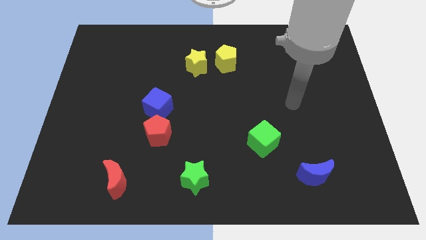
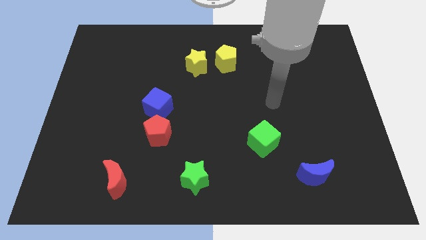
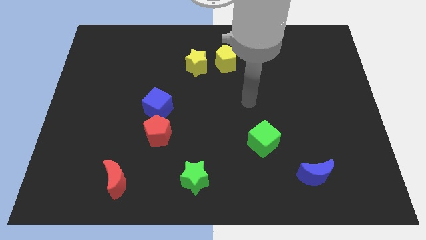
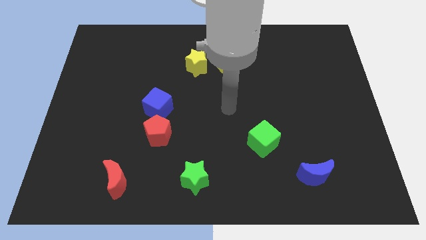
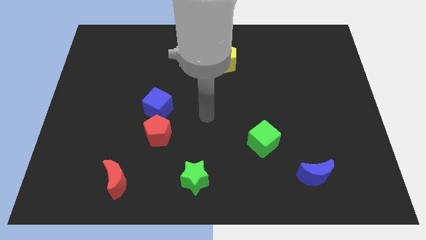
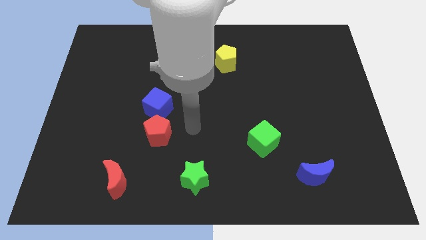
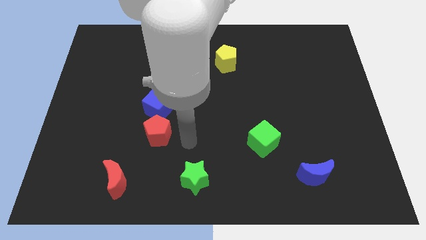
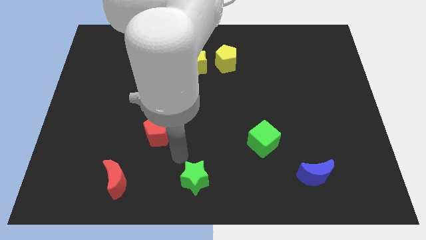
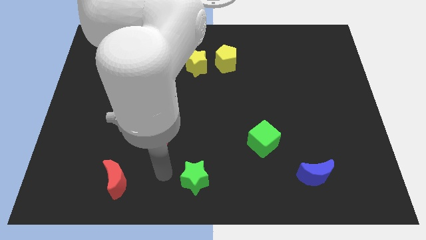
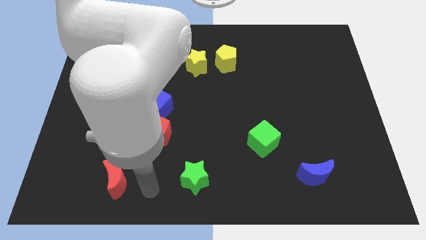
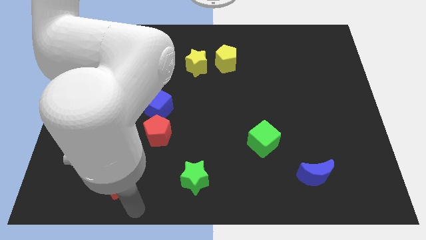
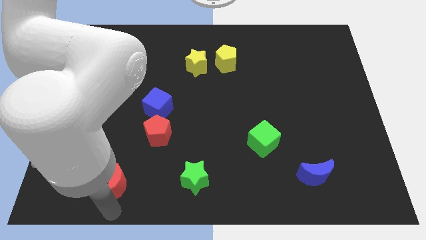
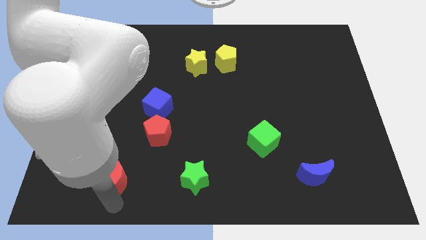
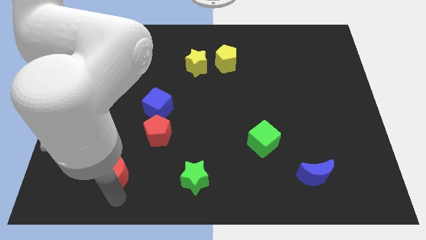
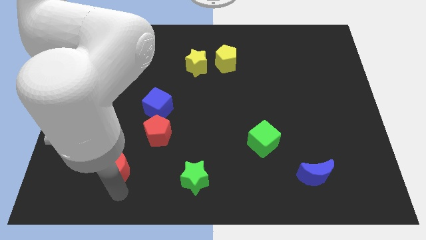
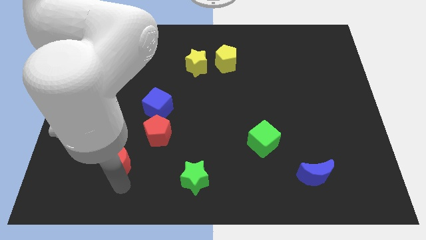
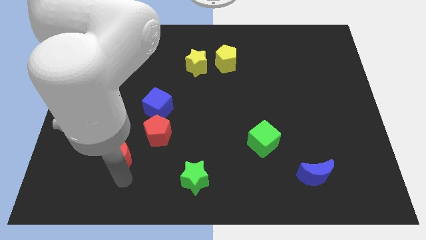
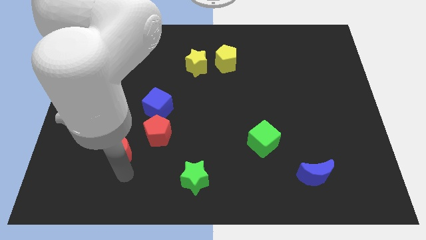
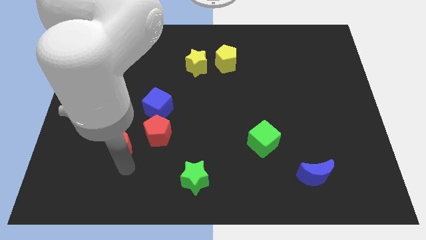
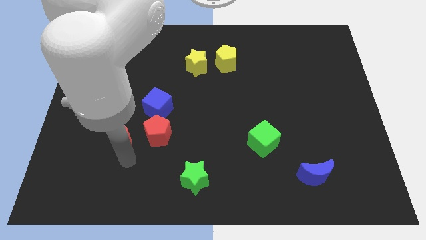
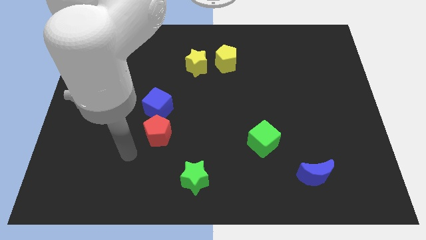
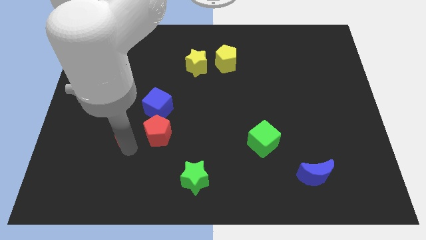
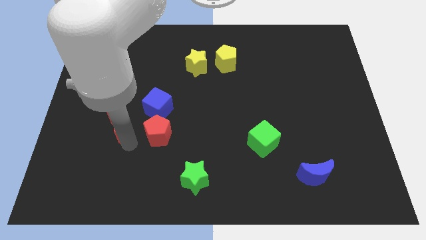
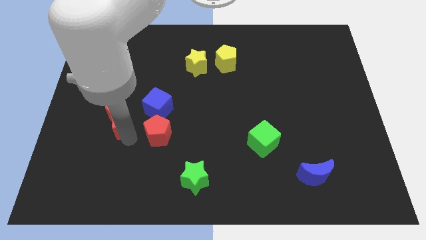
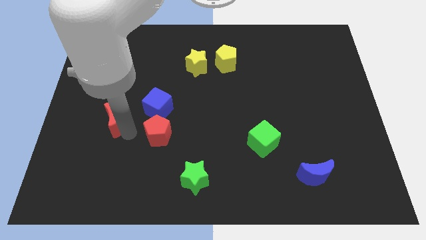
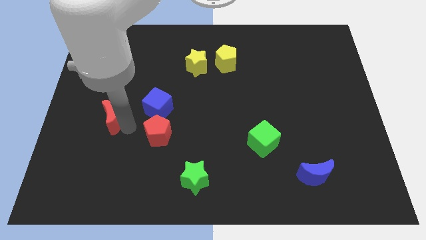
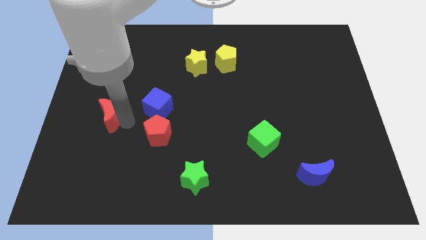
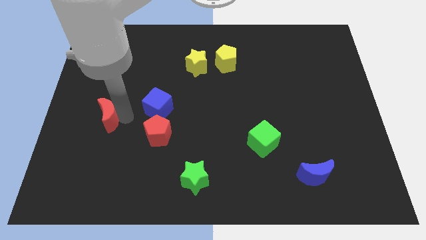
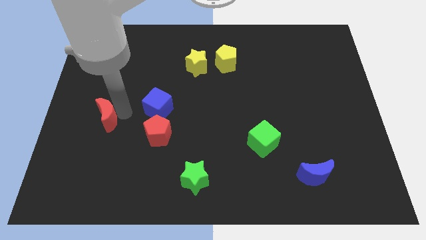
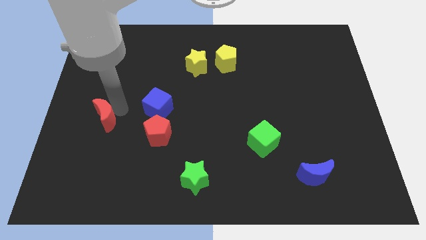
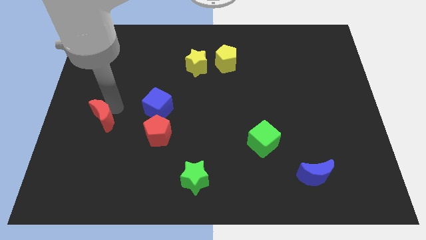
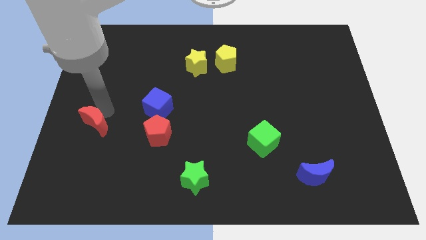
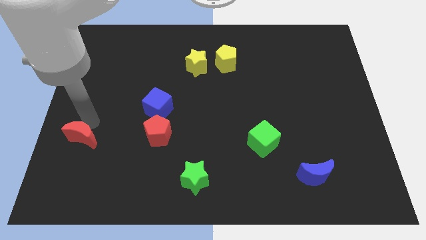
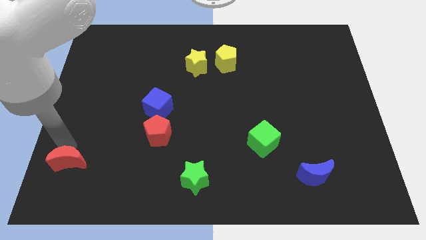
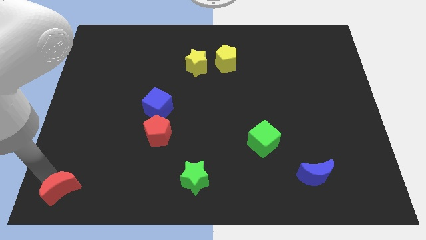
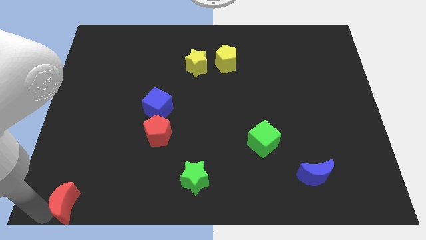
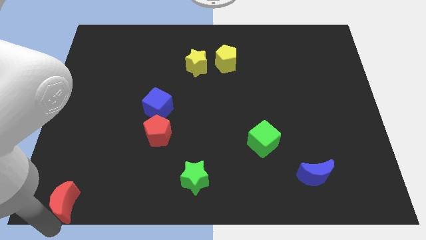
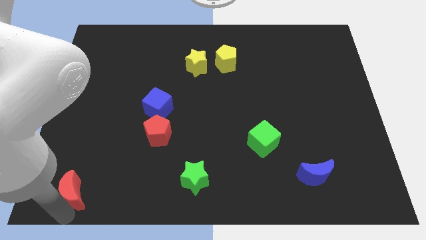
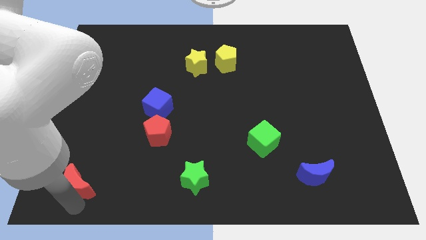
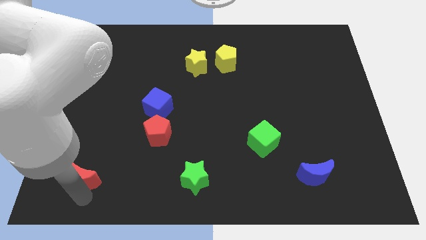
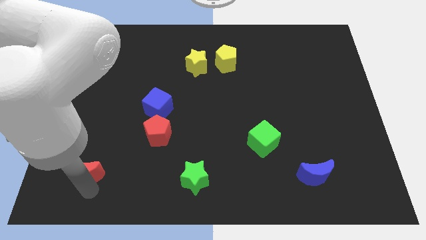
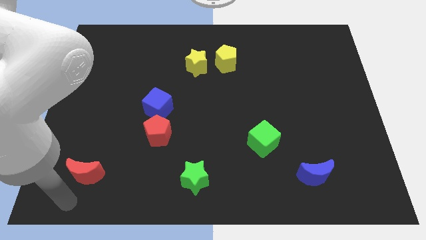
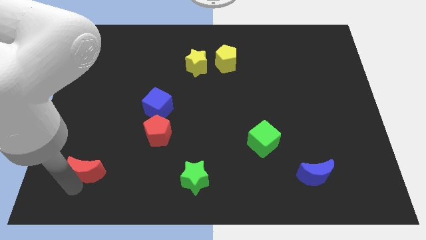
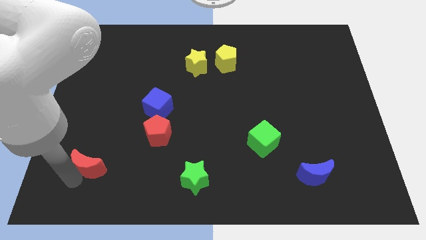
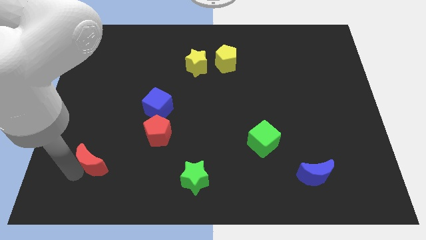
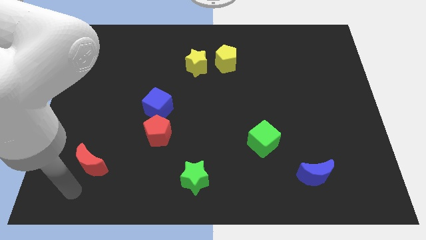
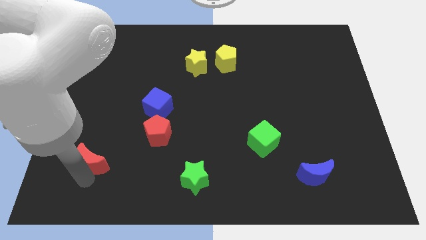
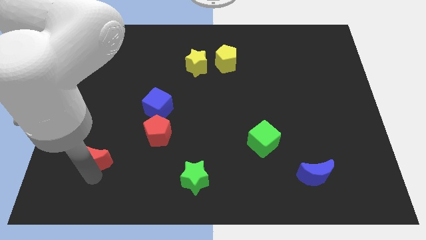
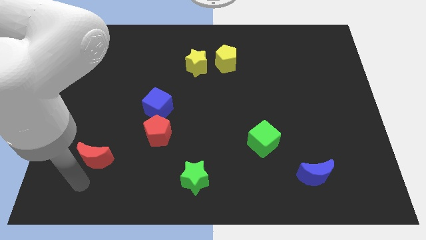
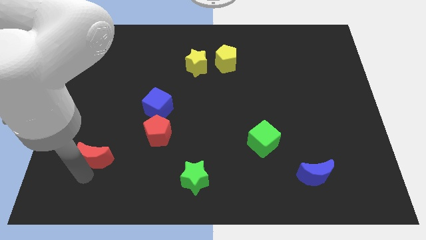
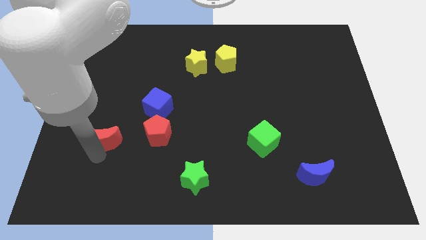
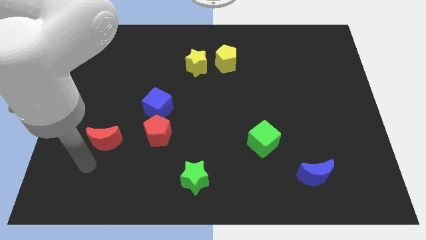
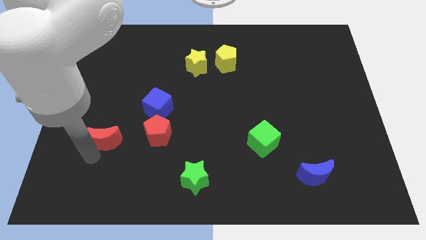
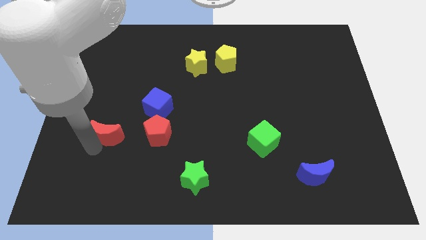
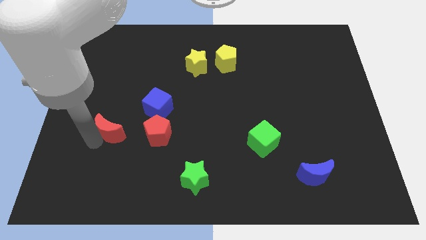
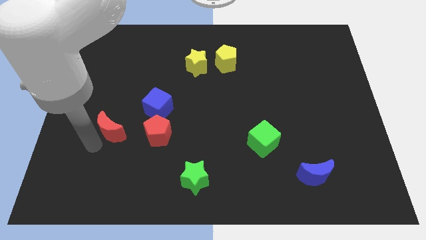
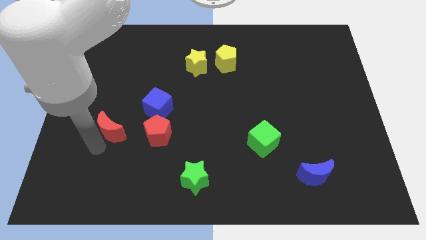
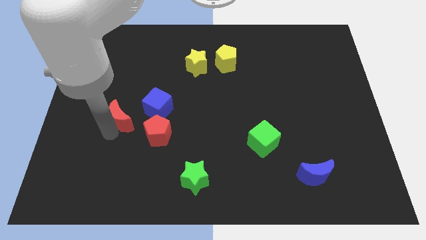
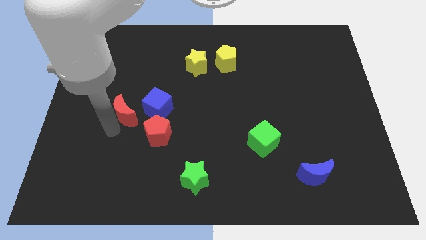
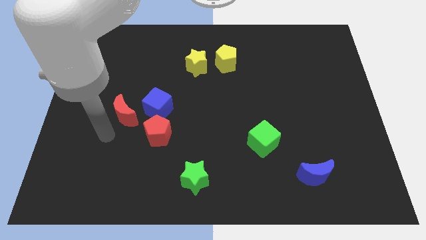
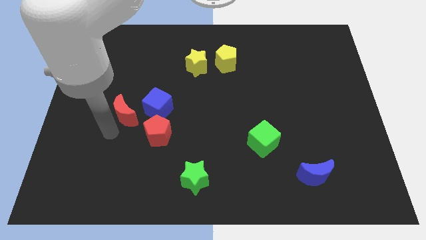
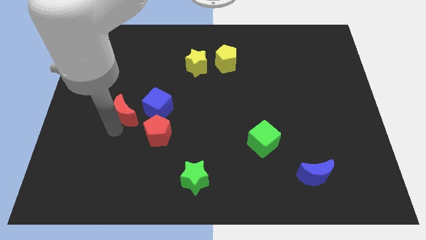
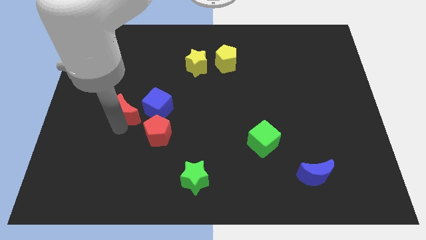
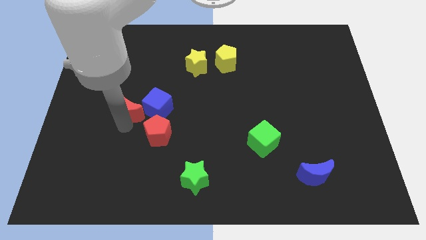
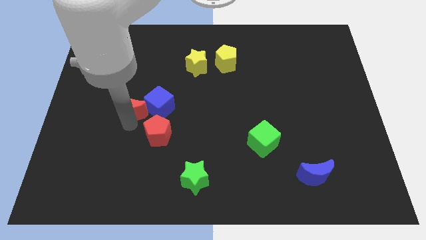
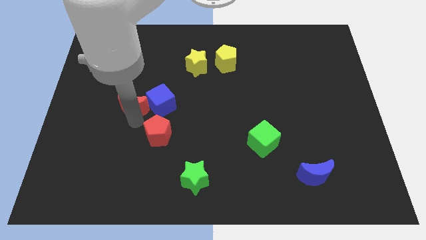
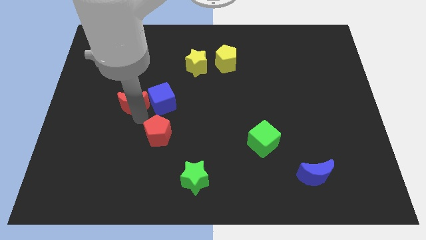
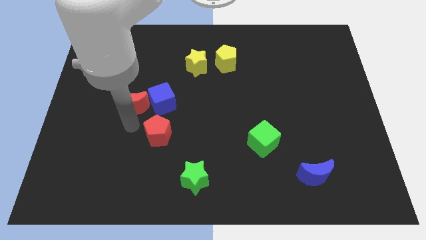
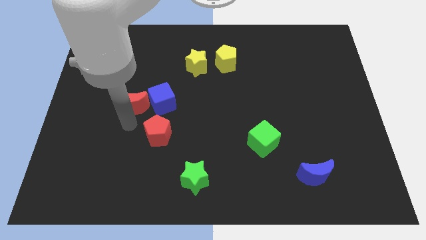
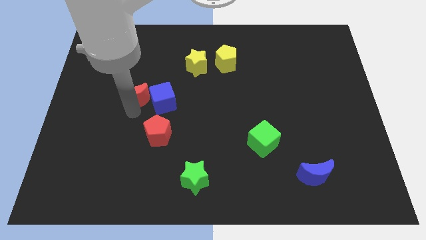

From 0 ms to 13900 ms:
push the red moon up

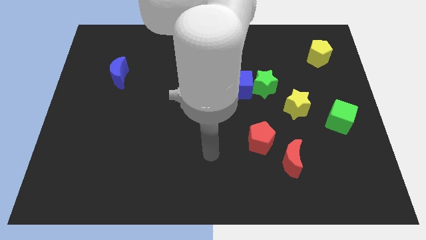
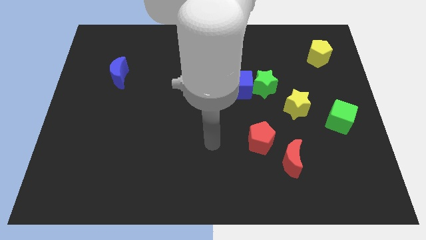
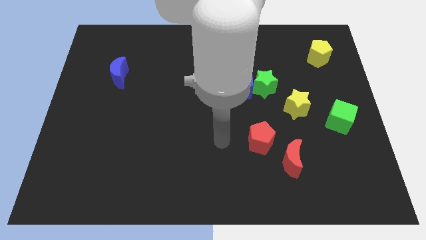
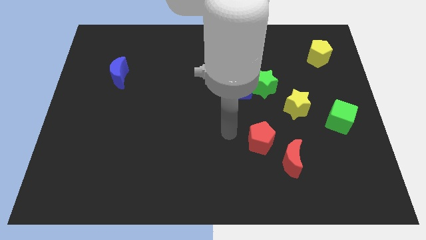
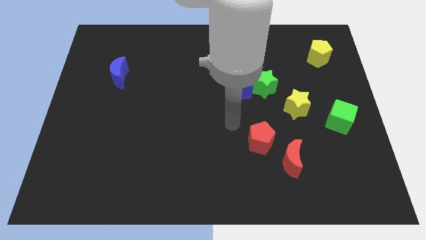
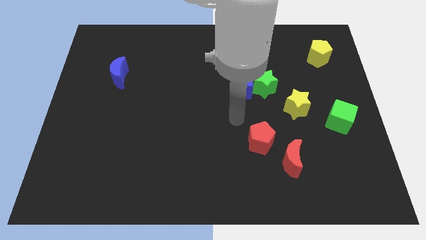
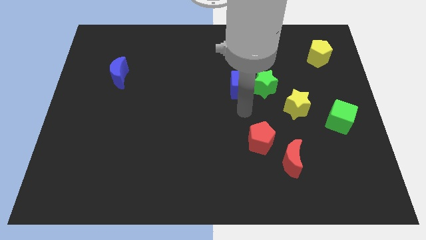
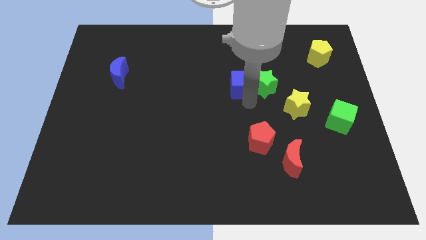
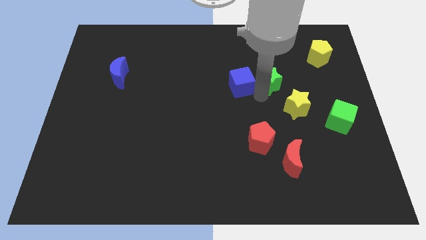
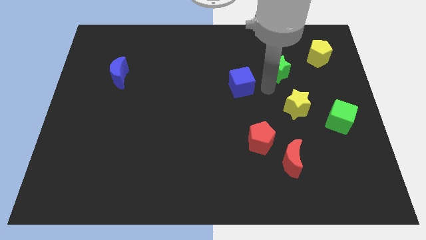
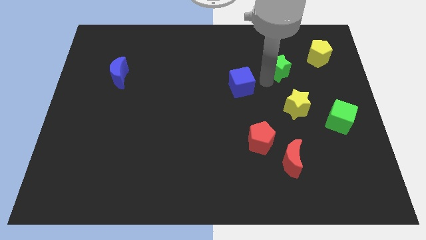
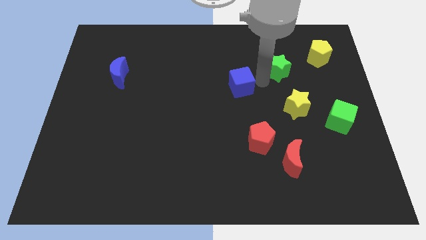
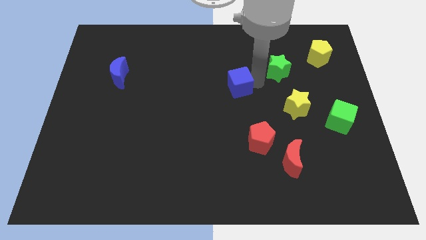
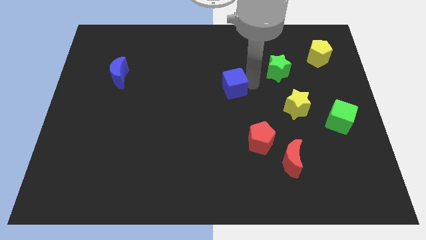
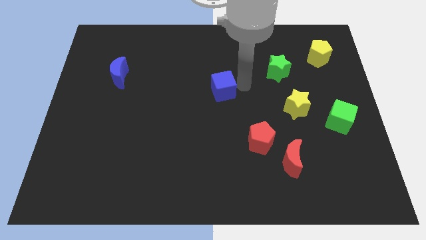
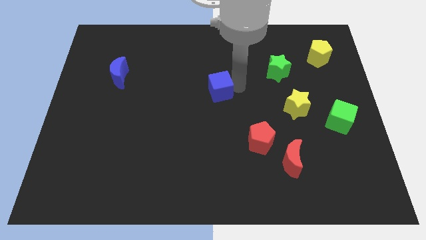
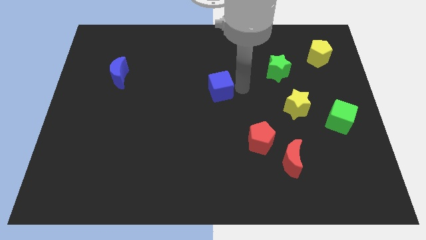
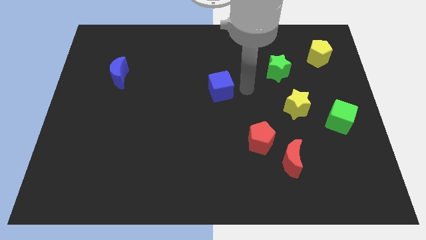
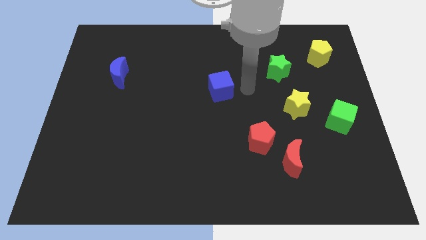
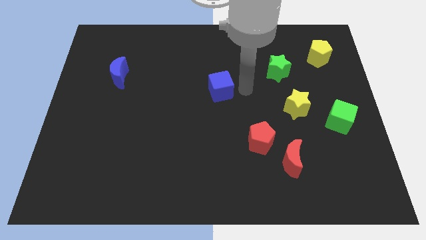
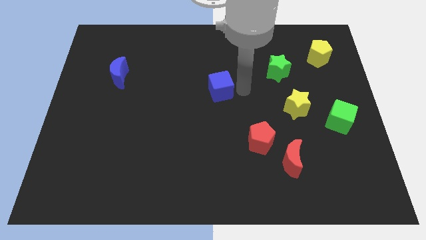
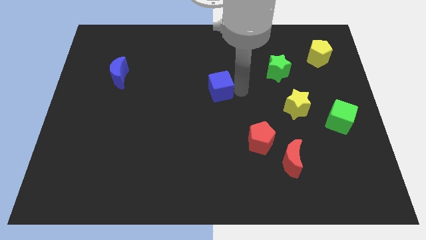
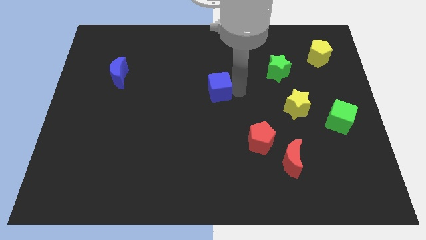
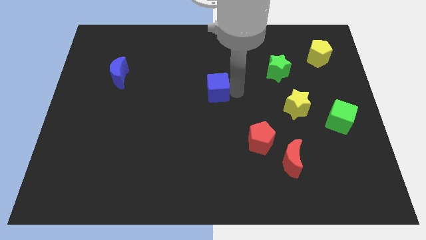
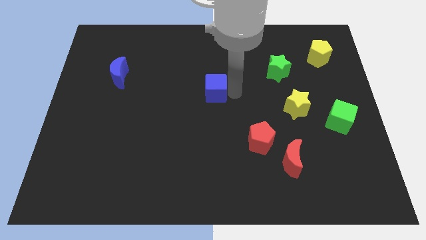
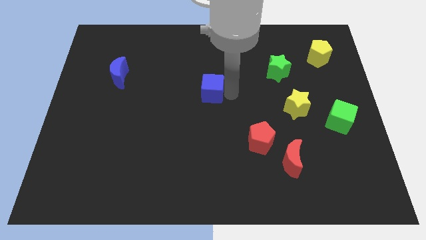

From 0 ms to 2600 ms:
slightly slide the blue cube to the left
